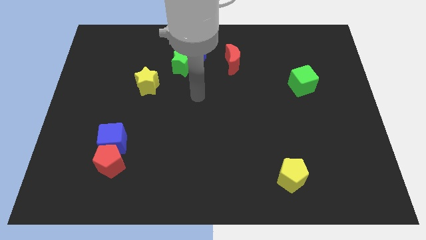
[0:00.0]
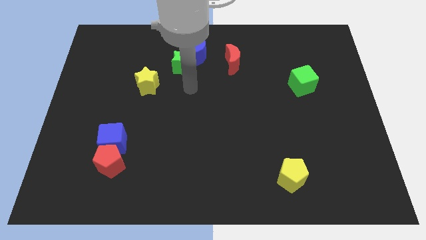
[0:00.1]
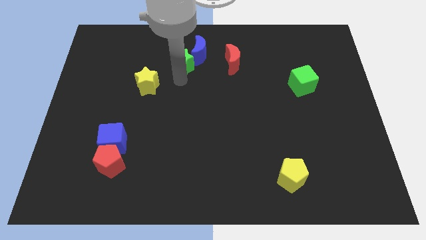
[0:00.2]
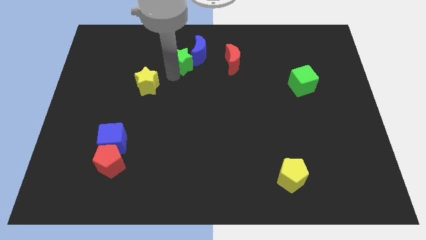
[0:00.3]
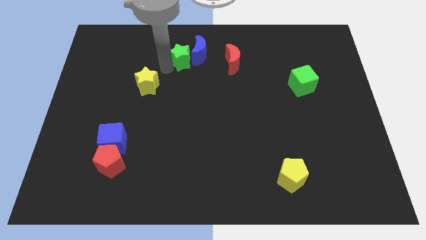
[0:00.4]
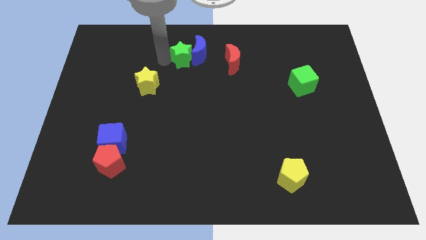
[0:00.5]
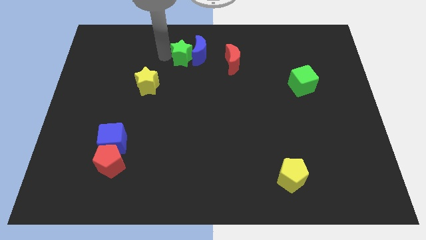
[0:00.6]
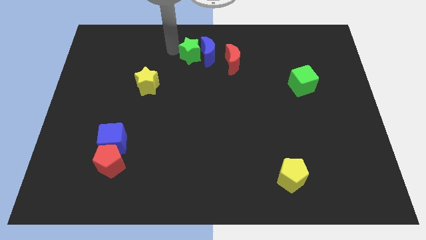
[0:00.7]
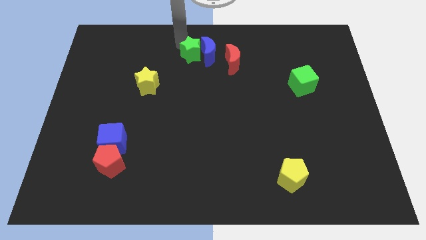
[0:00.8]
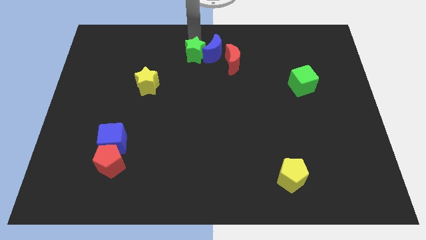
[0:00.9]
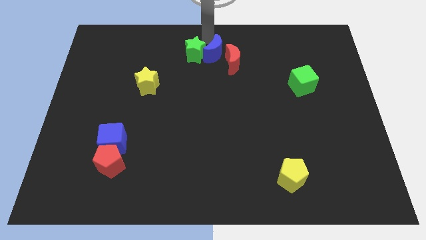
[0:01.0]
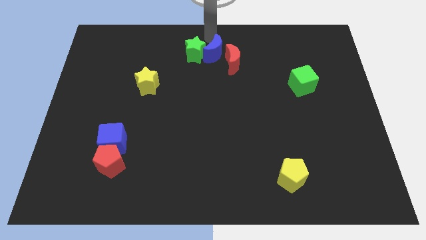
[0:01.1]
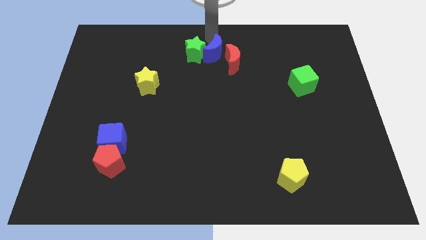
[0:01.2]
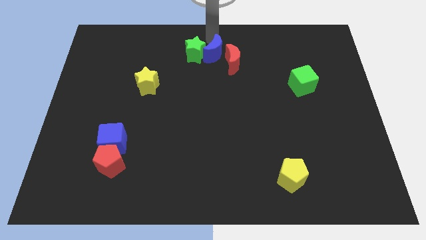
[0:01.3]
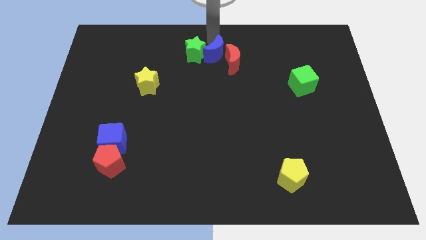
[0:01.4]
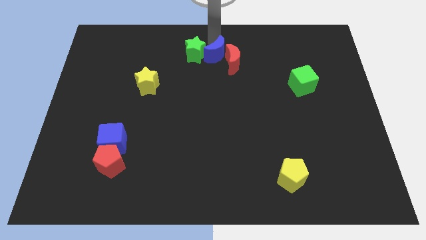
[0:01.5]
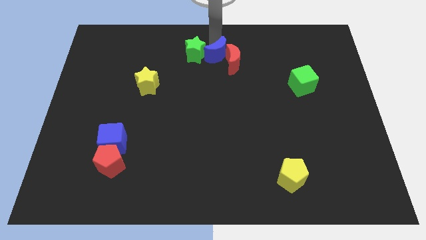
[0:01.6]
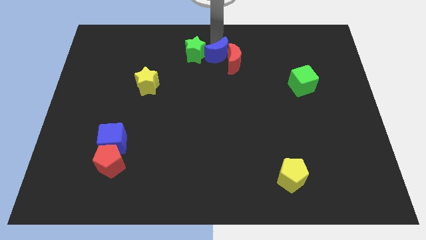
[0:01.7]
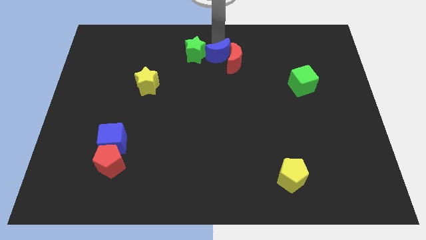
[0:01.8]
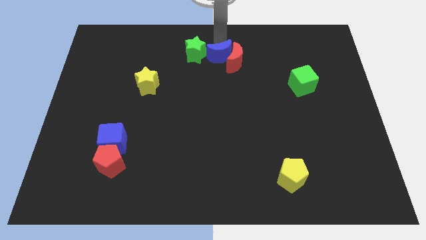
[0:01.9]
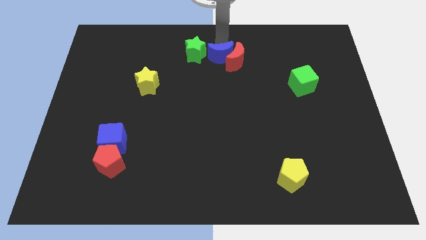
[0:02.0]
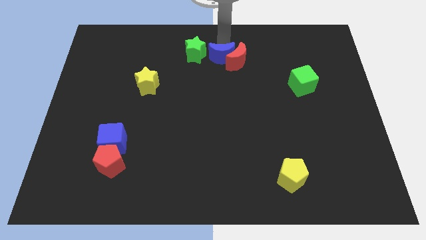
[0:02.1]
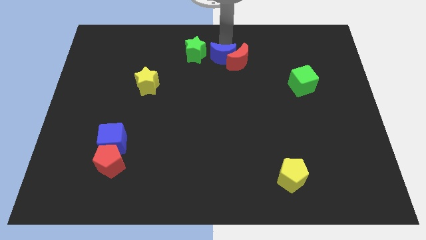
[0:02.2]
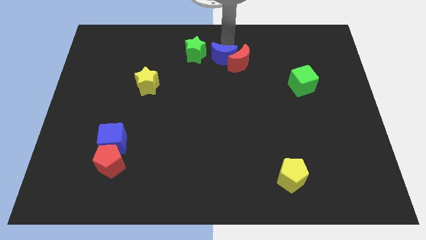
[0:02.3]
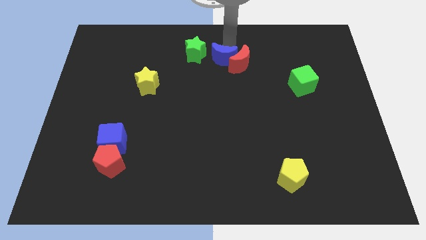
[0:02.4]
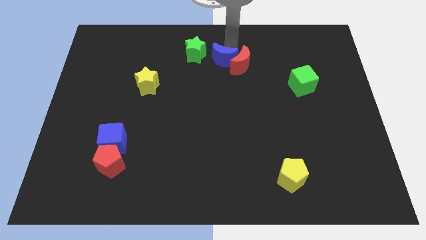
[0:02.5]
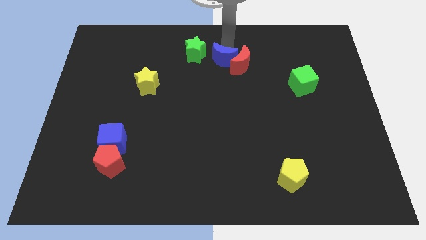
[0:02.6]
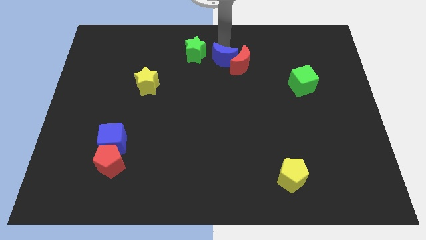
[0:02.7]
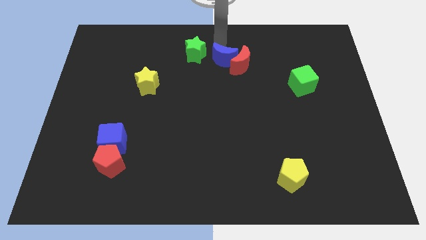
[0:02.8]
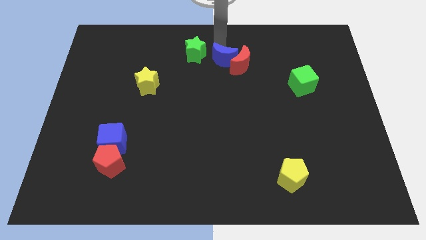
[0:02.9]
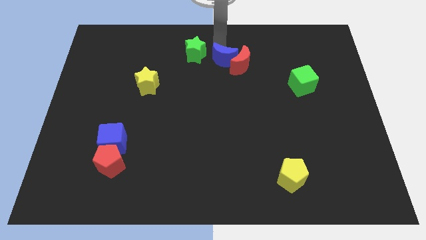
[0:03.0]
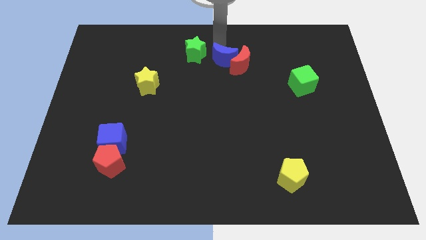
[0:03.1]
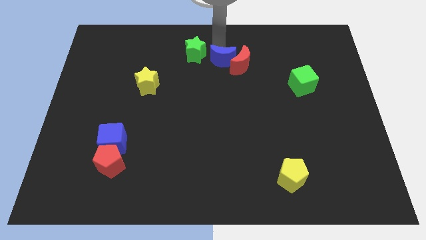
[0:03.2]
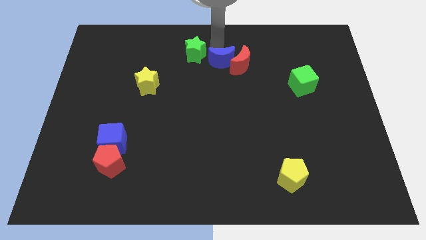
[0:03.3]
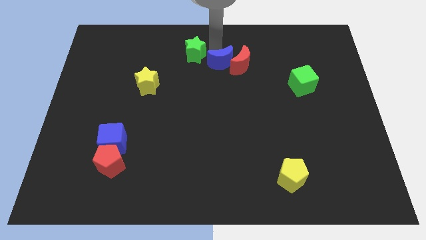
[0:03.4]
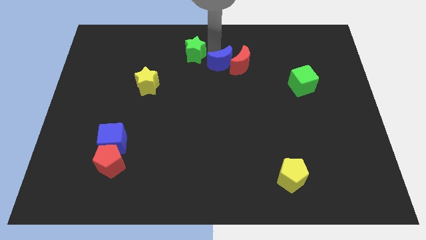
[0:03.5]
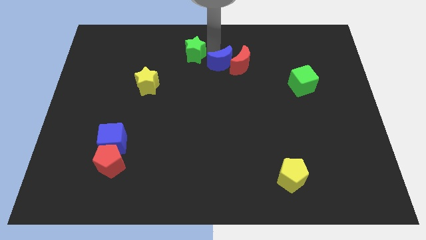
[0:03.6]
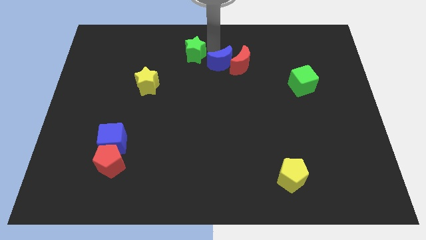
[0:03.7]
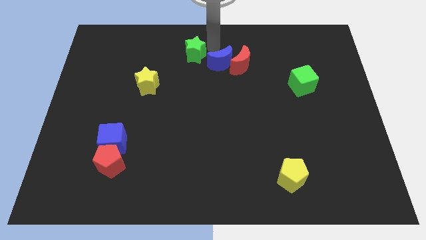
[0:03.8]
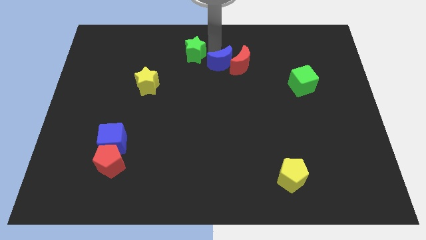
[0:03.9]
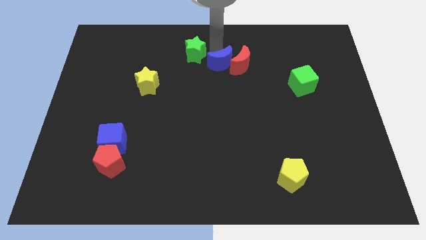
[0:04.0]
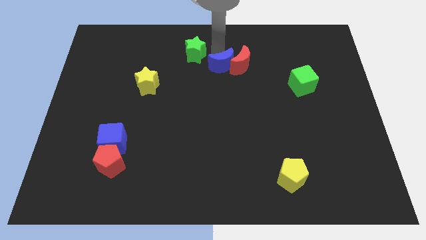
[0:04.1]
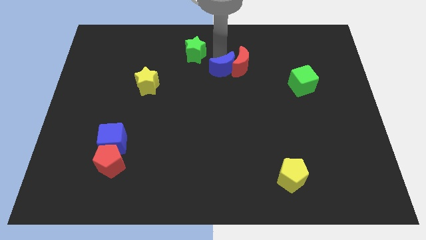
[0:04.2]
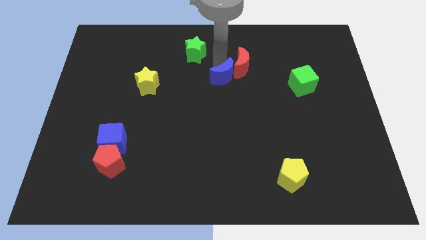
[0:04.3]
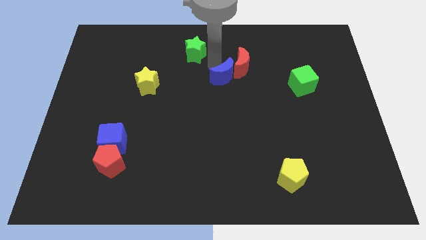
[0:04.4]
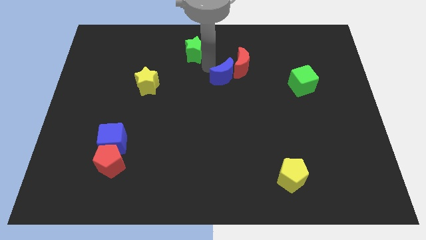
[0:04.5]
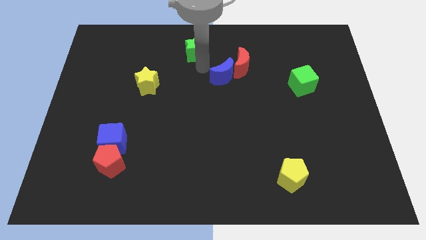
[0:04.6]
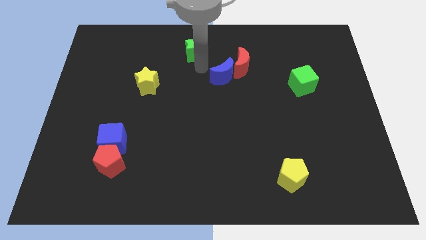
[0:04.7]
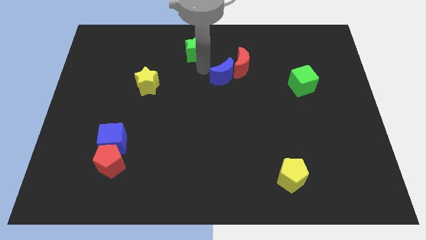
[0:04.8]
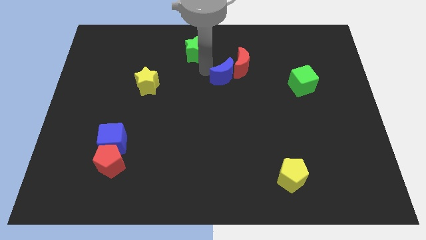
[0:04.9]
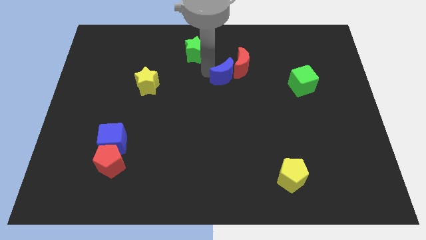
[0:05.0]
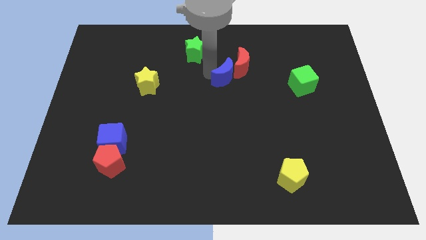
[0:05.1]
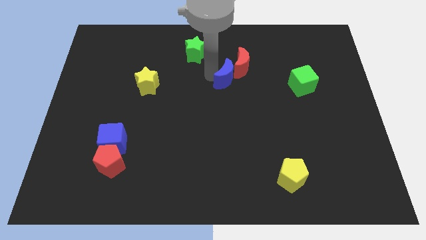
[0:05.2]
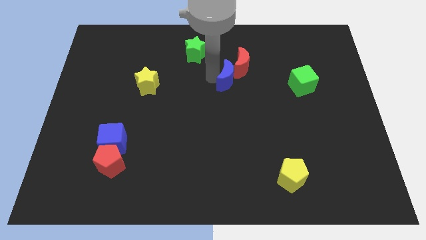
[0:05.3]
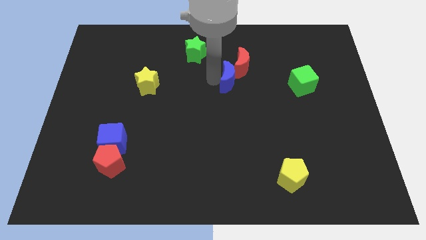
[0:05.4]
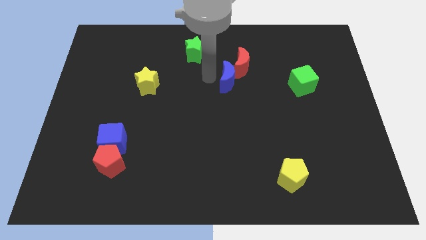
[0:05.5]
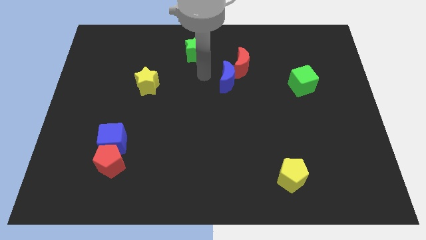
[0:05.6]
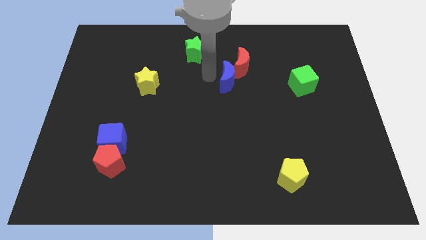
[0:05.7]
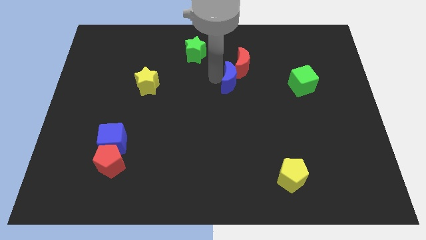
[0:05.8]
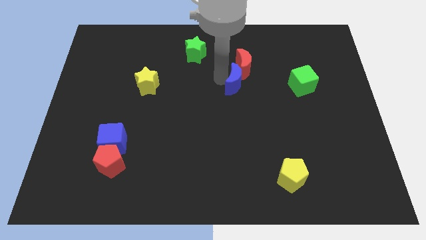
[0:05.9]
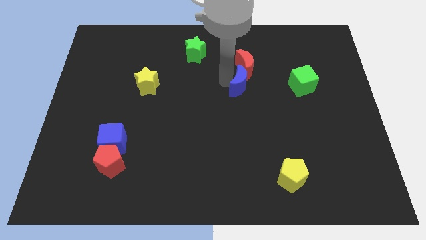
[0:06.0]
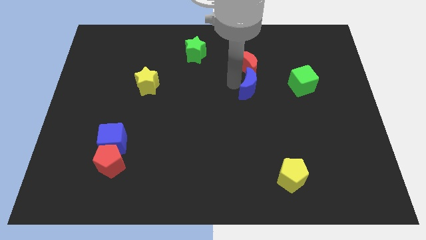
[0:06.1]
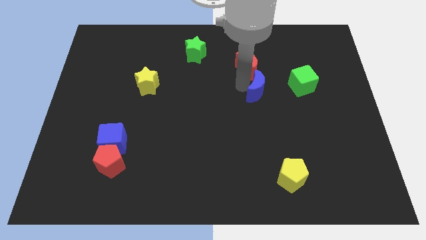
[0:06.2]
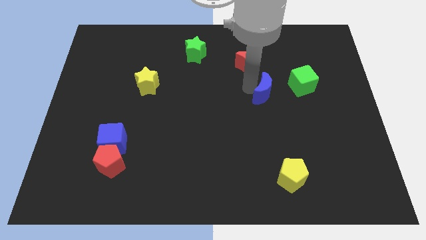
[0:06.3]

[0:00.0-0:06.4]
move the blue moon to the bottom left side of the green cube

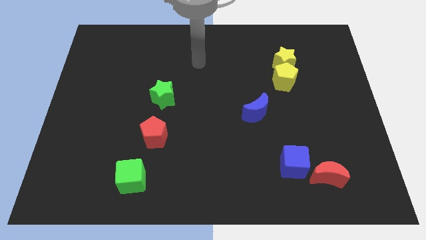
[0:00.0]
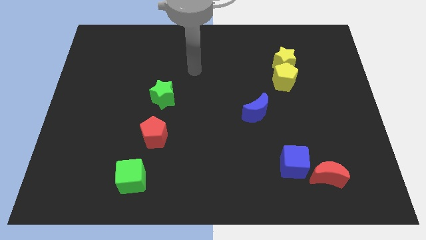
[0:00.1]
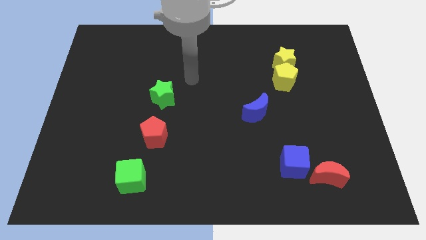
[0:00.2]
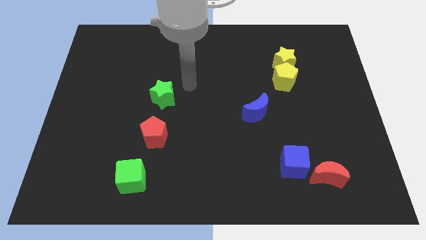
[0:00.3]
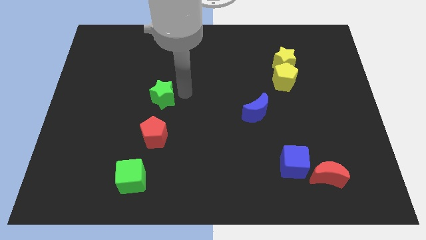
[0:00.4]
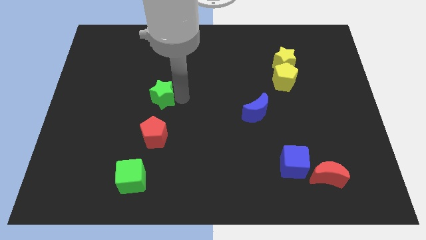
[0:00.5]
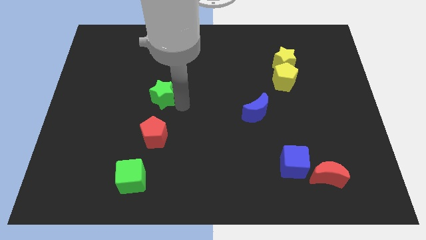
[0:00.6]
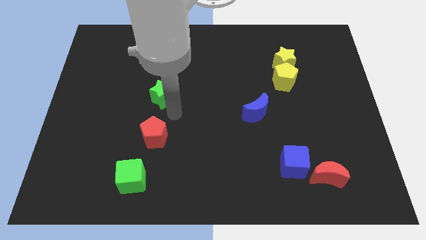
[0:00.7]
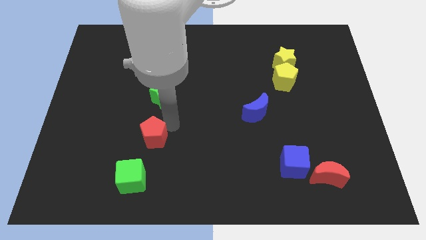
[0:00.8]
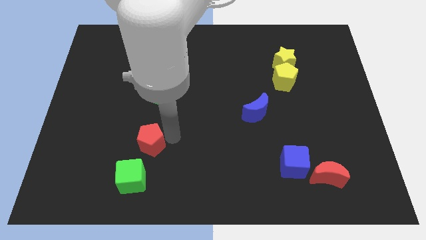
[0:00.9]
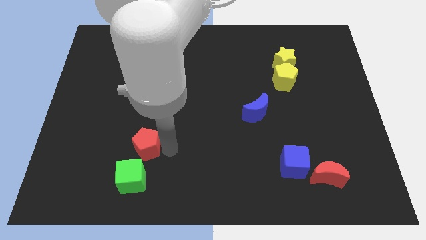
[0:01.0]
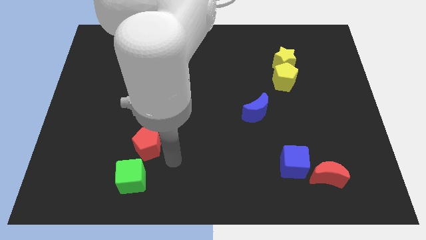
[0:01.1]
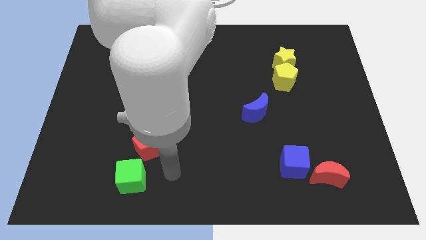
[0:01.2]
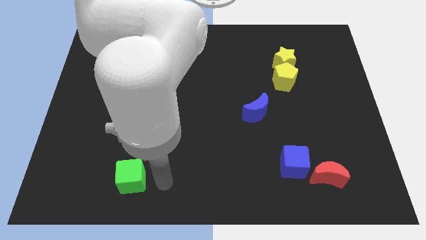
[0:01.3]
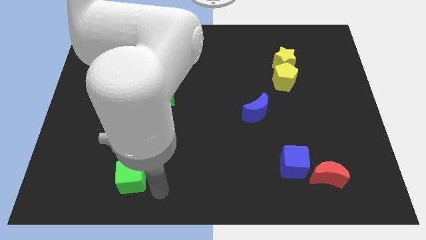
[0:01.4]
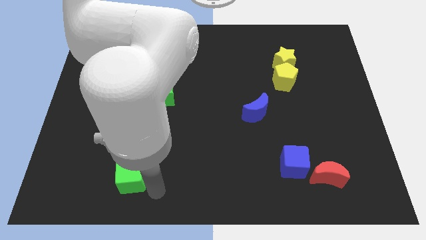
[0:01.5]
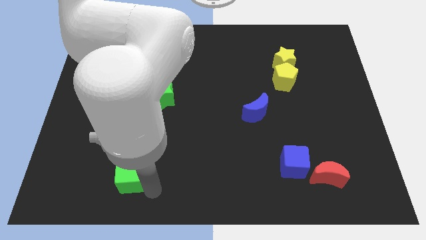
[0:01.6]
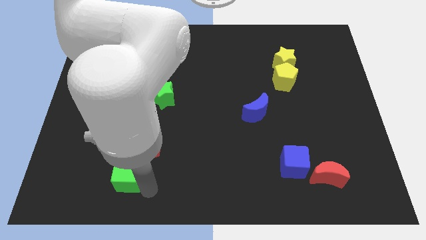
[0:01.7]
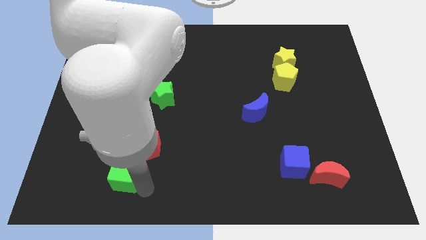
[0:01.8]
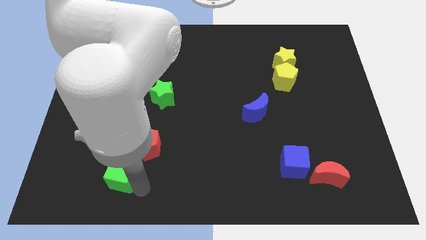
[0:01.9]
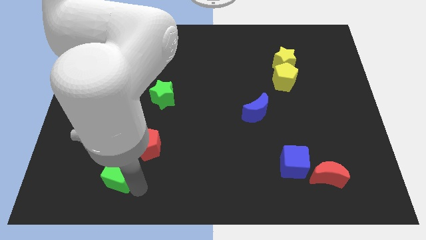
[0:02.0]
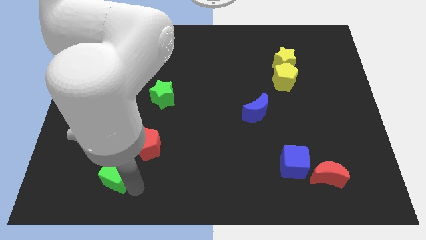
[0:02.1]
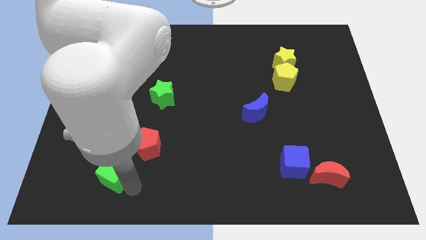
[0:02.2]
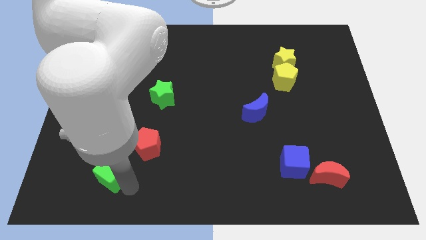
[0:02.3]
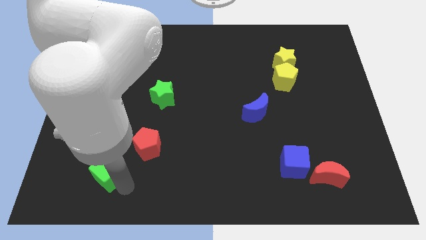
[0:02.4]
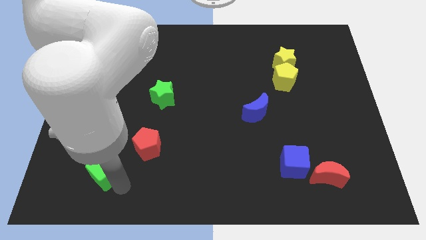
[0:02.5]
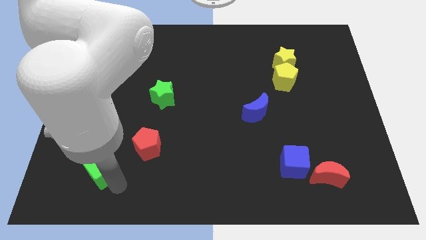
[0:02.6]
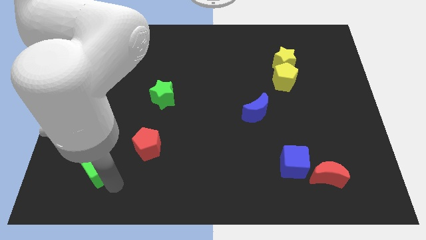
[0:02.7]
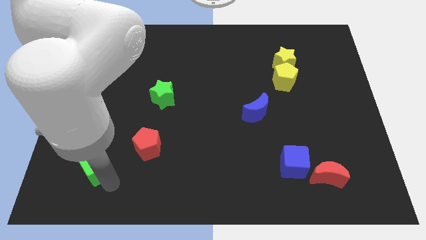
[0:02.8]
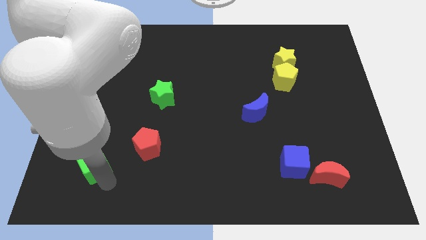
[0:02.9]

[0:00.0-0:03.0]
put the green cube left of the red pentagon
